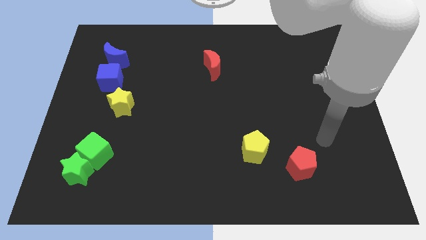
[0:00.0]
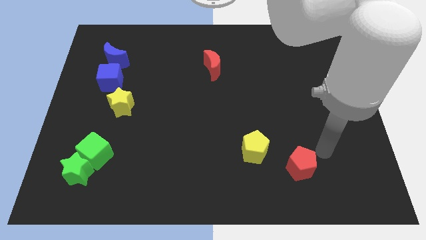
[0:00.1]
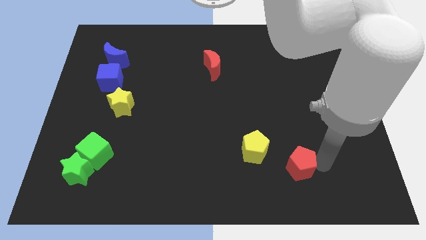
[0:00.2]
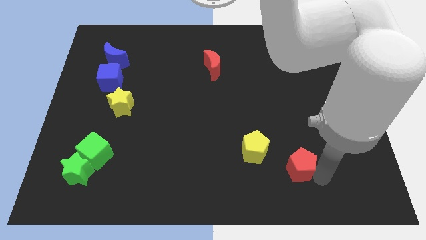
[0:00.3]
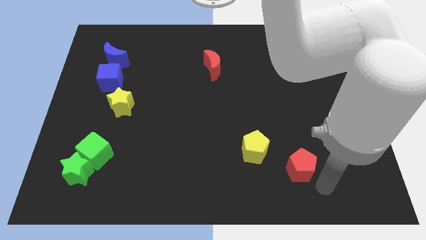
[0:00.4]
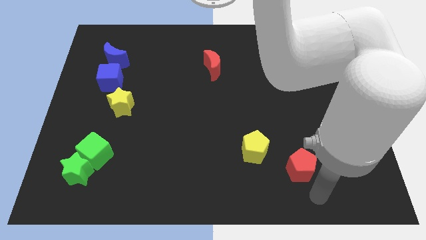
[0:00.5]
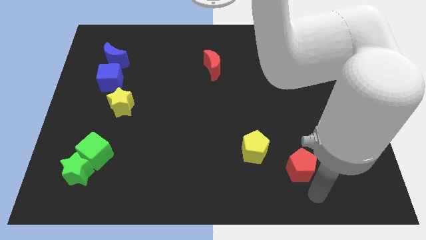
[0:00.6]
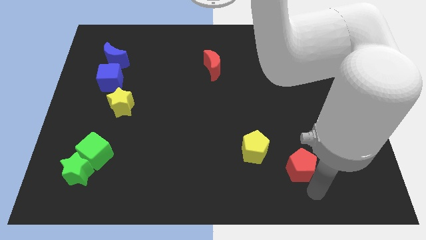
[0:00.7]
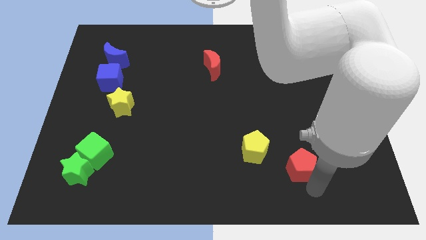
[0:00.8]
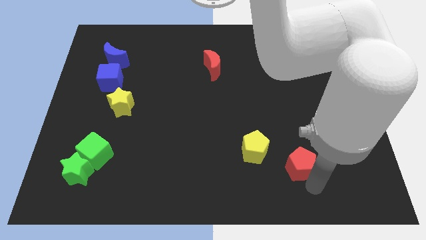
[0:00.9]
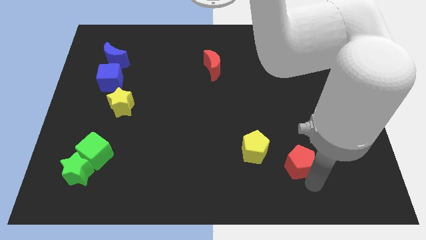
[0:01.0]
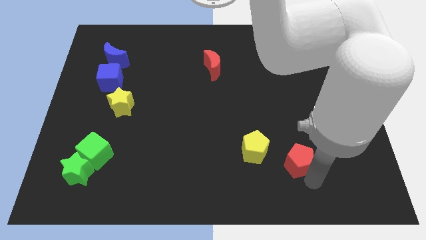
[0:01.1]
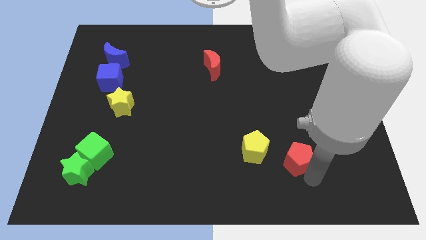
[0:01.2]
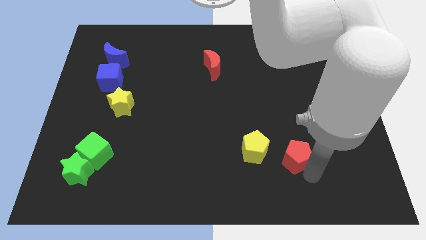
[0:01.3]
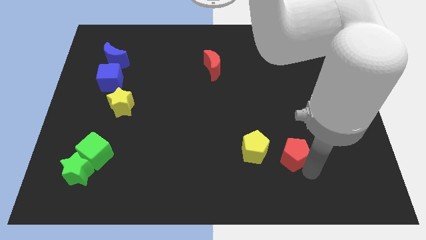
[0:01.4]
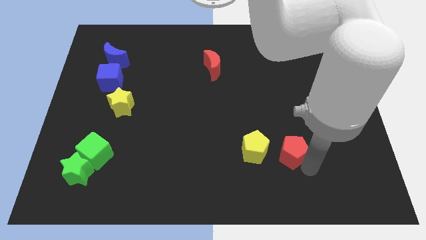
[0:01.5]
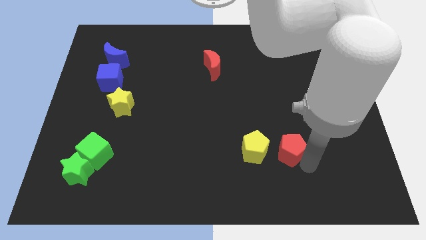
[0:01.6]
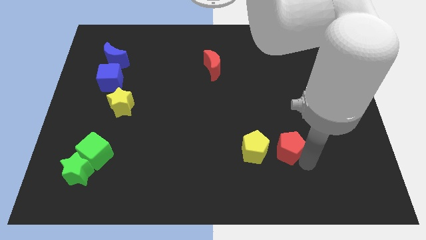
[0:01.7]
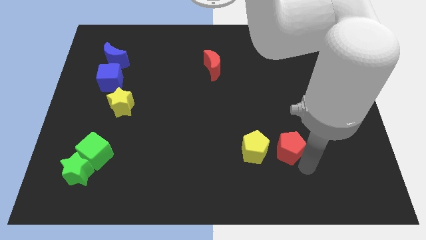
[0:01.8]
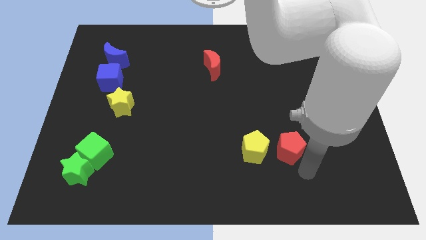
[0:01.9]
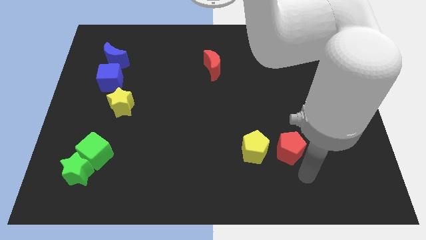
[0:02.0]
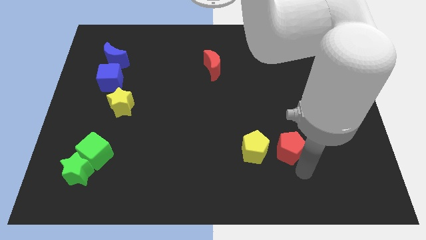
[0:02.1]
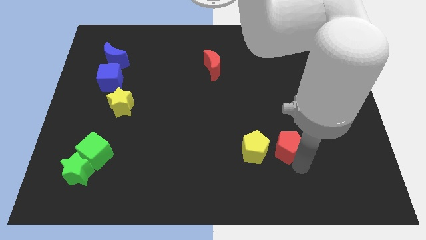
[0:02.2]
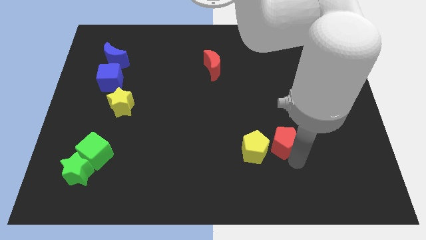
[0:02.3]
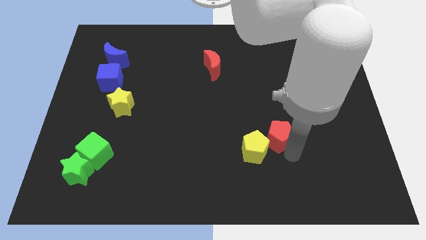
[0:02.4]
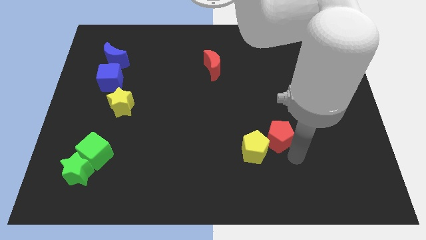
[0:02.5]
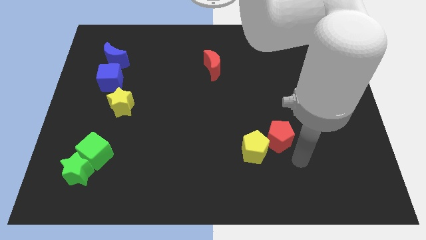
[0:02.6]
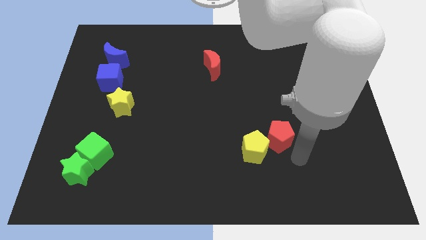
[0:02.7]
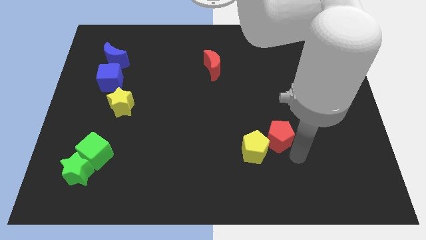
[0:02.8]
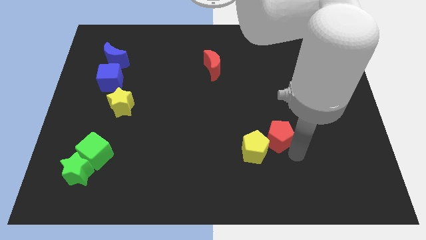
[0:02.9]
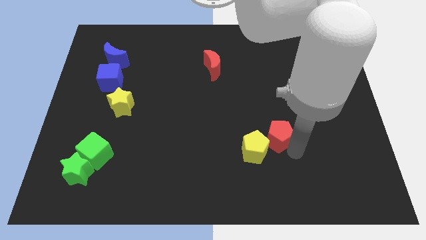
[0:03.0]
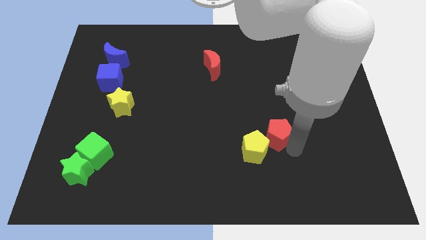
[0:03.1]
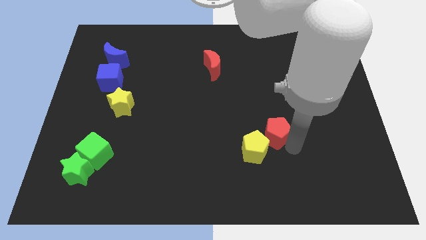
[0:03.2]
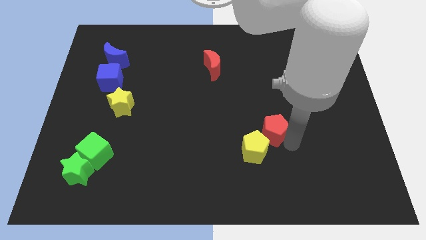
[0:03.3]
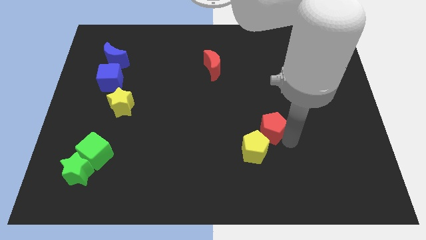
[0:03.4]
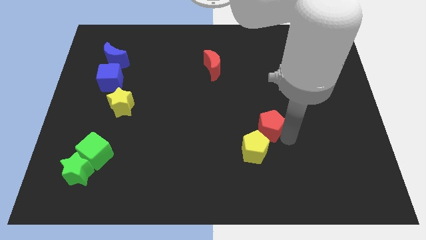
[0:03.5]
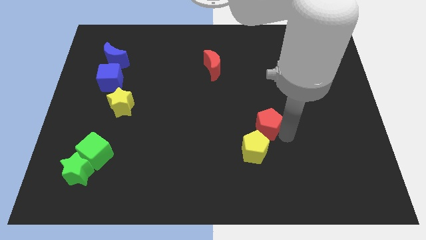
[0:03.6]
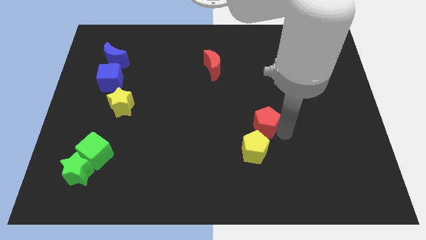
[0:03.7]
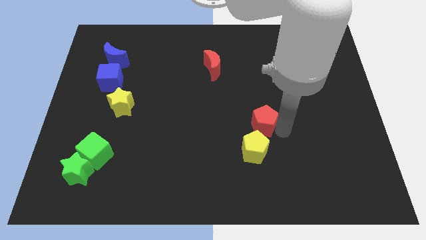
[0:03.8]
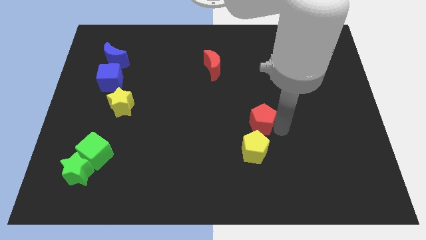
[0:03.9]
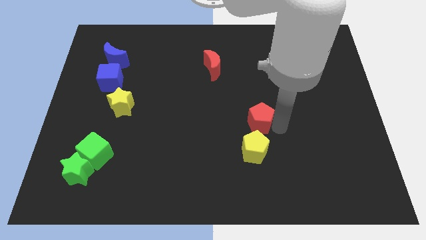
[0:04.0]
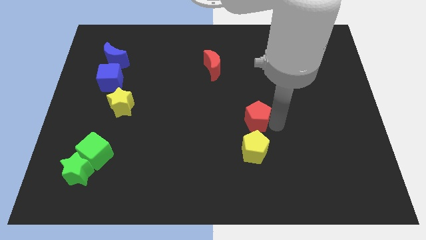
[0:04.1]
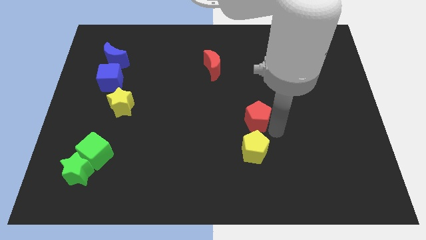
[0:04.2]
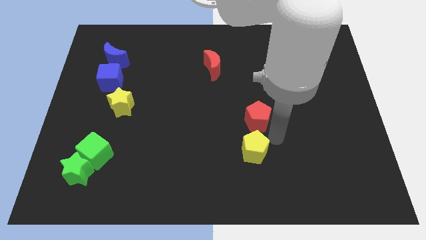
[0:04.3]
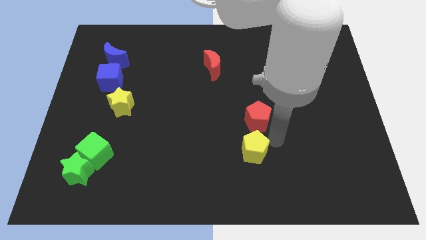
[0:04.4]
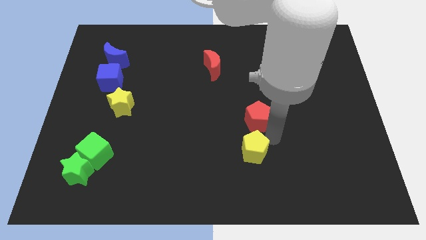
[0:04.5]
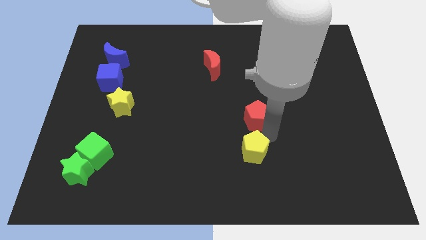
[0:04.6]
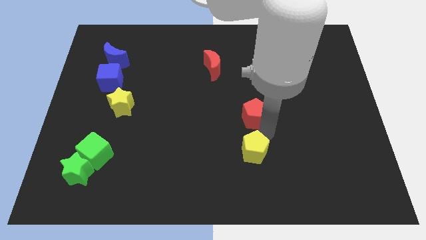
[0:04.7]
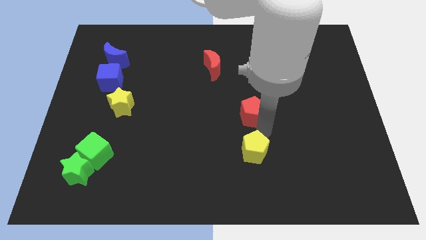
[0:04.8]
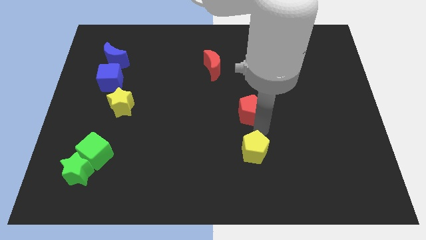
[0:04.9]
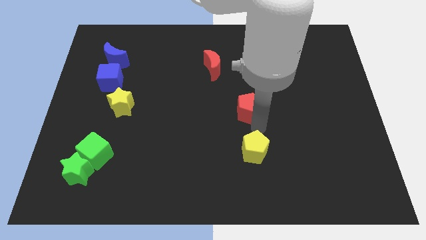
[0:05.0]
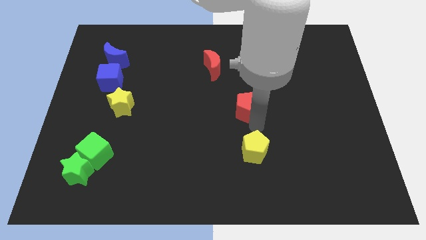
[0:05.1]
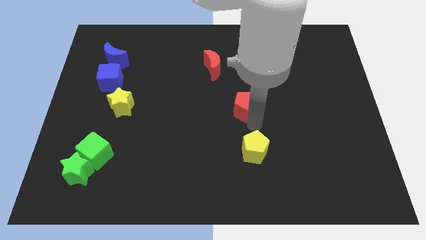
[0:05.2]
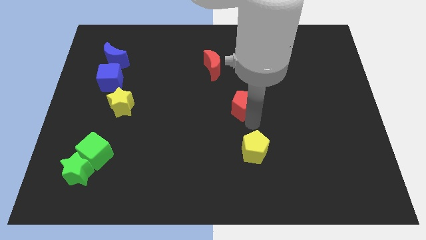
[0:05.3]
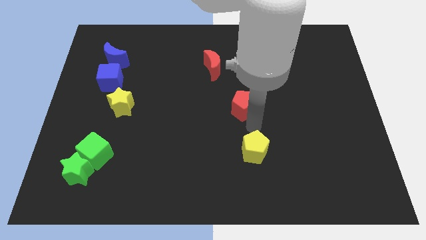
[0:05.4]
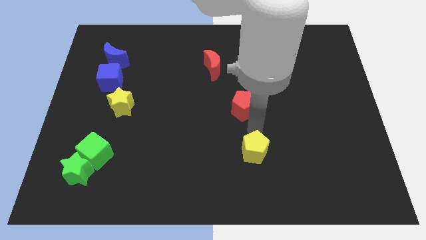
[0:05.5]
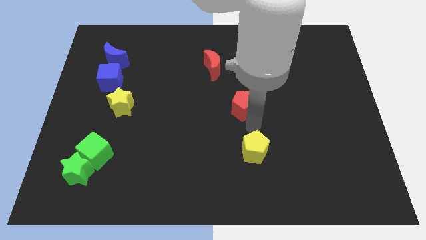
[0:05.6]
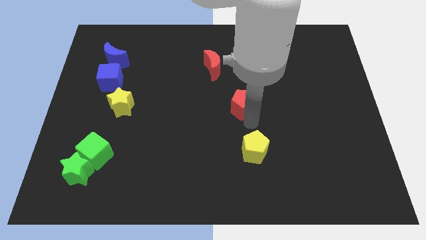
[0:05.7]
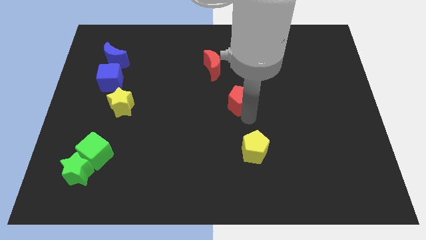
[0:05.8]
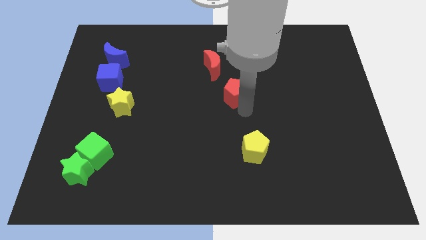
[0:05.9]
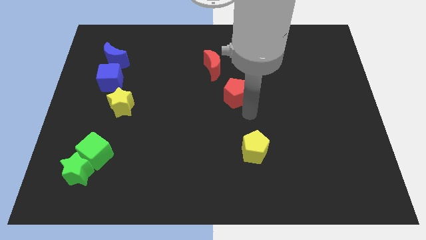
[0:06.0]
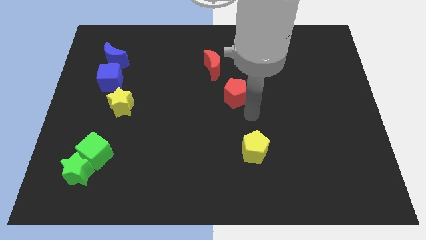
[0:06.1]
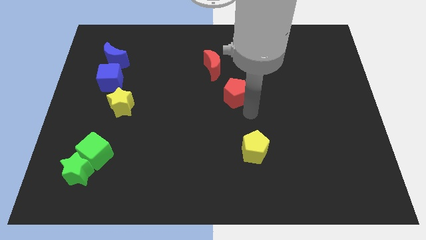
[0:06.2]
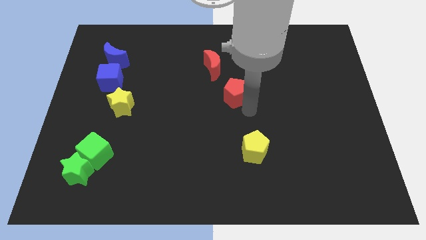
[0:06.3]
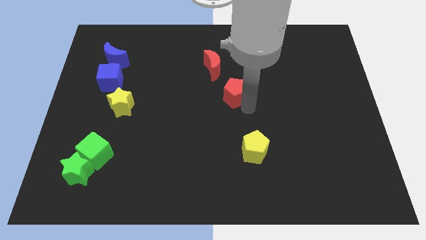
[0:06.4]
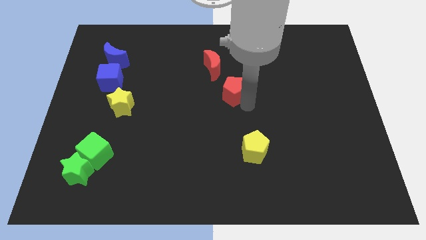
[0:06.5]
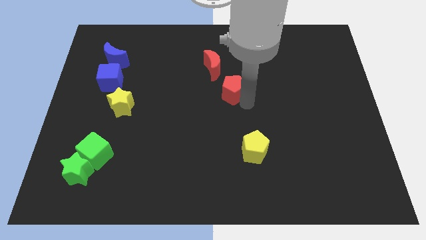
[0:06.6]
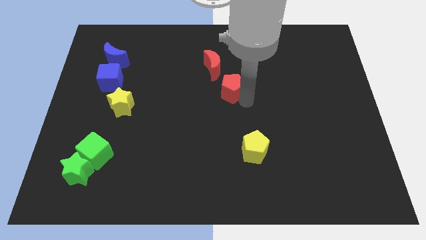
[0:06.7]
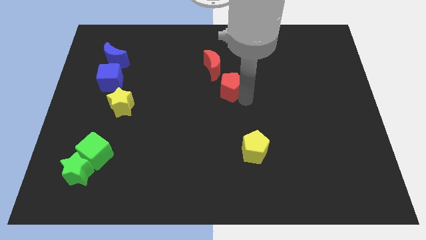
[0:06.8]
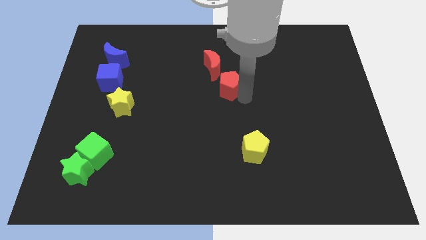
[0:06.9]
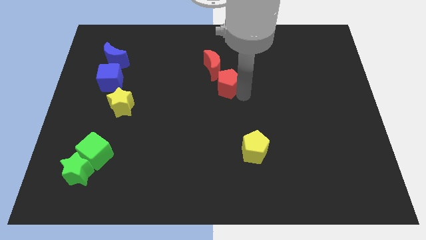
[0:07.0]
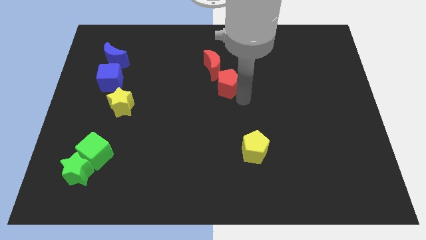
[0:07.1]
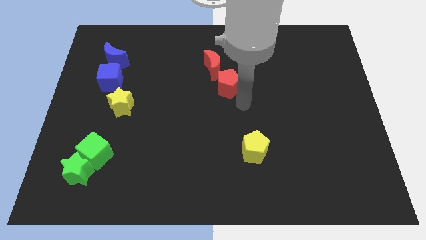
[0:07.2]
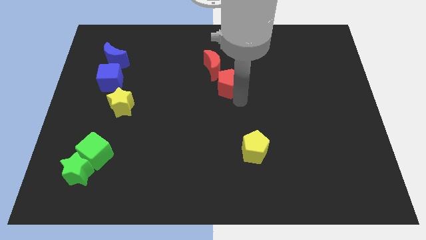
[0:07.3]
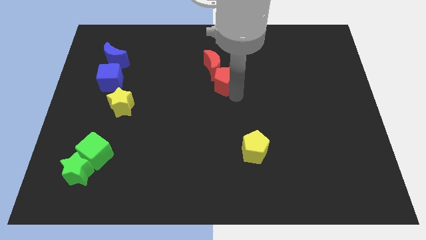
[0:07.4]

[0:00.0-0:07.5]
move the red pentagon towards the red moon
